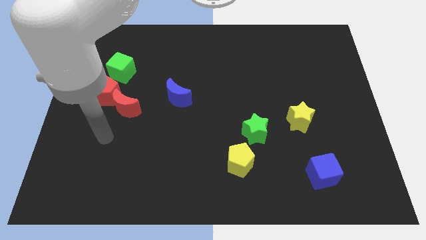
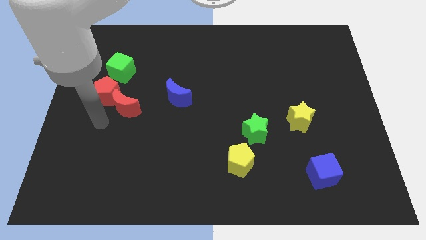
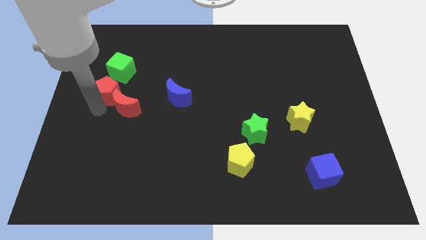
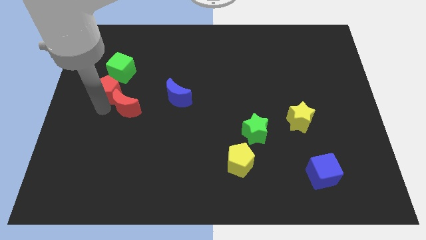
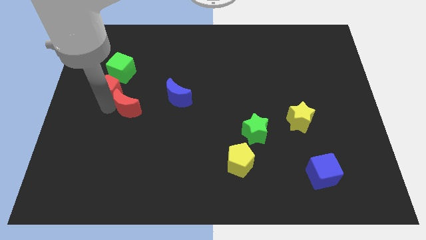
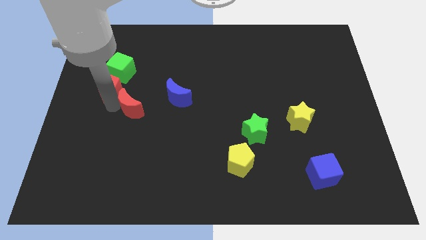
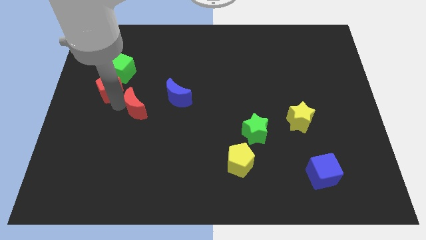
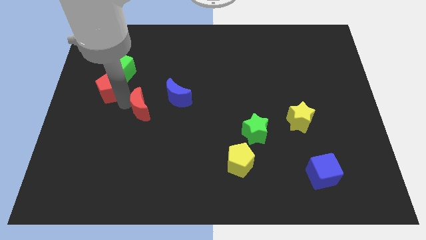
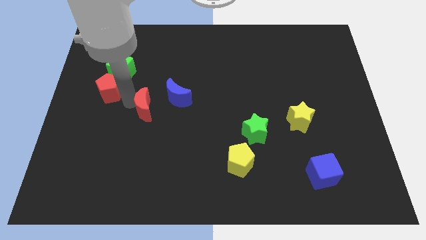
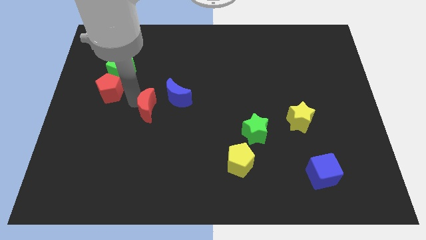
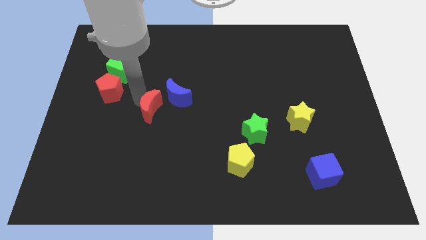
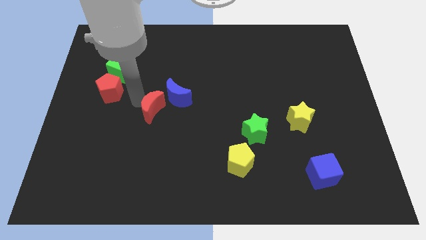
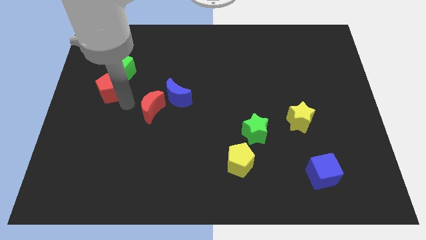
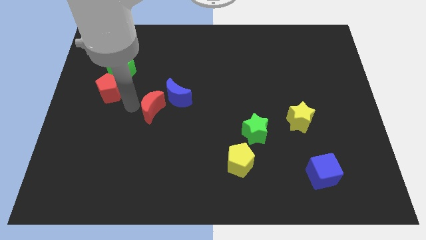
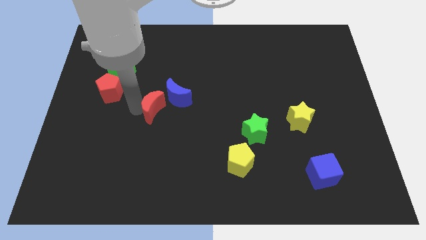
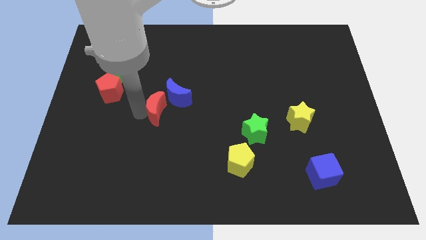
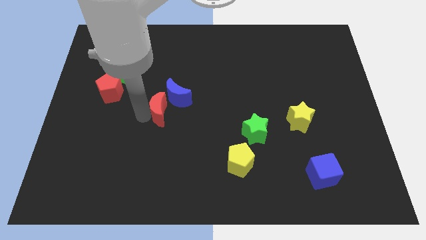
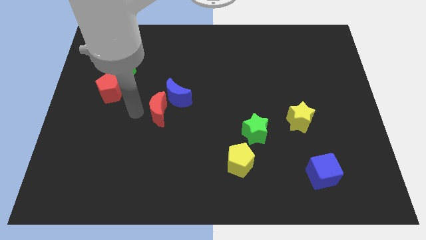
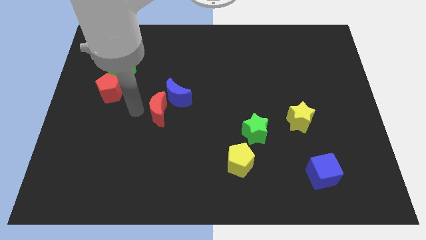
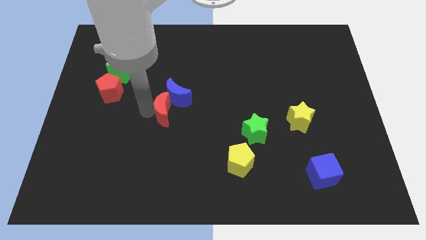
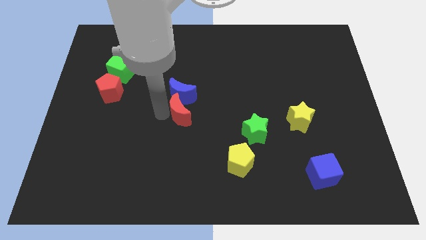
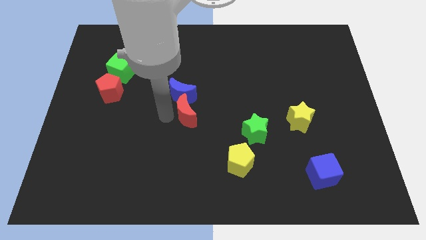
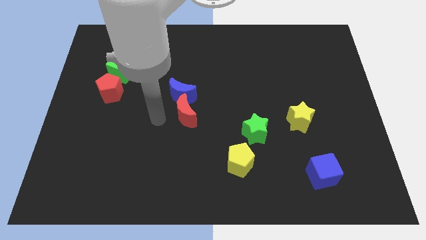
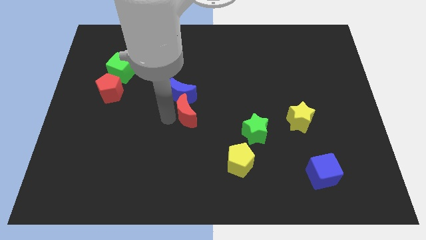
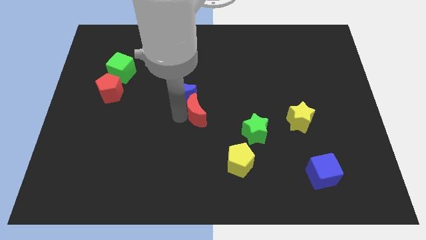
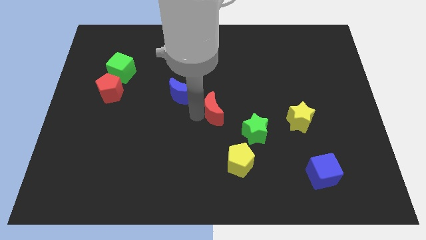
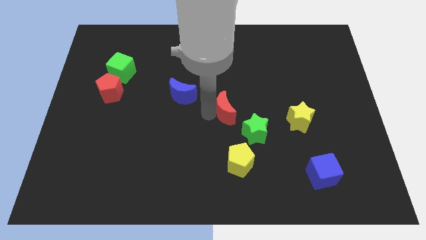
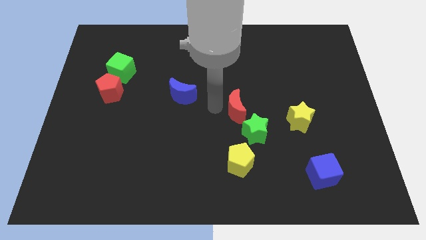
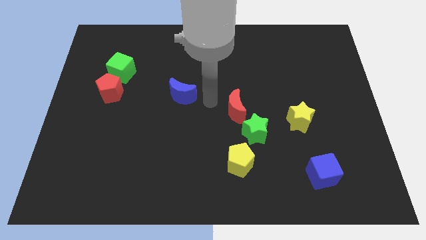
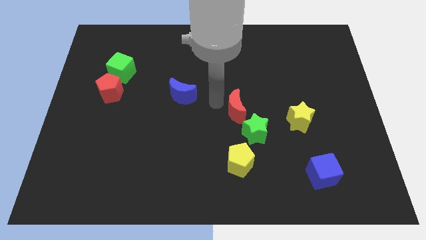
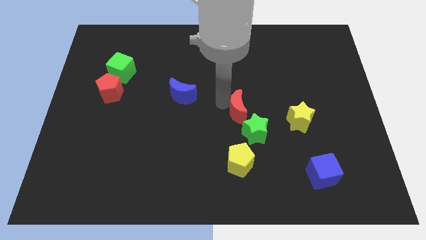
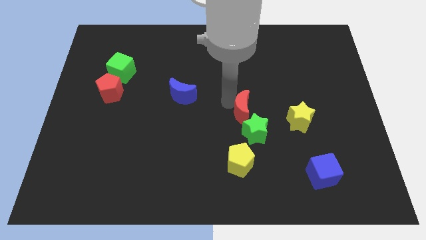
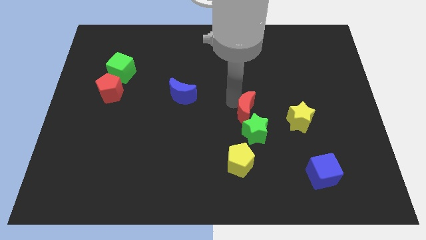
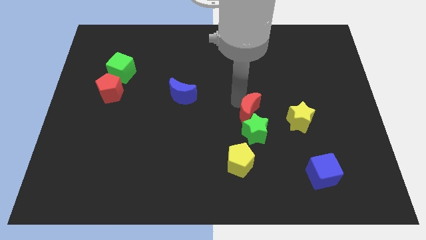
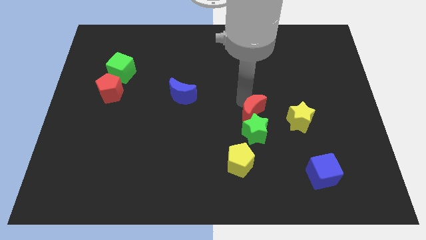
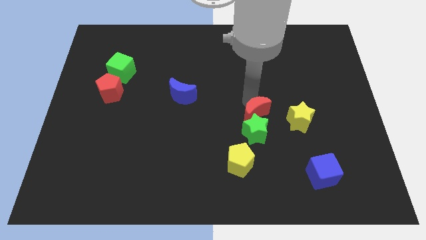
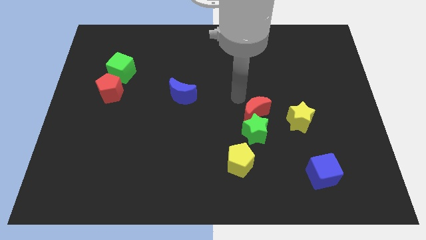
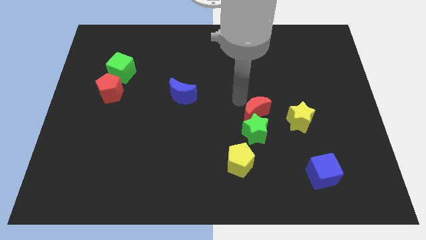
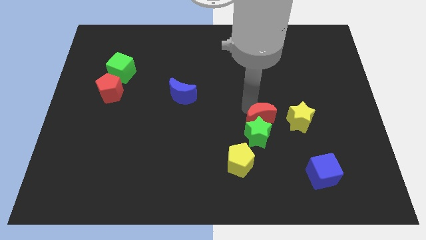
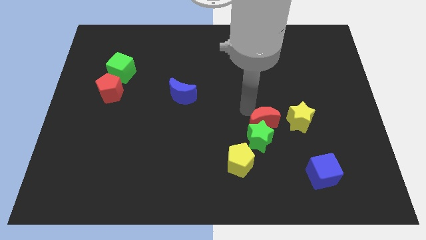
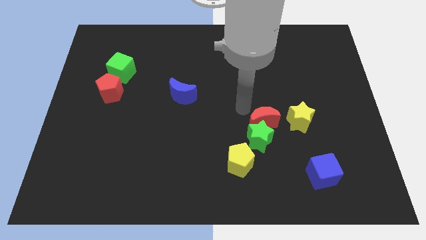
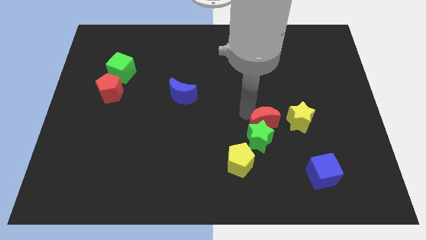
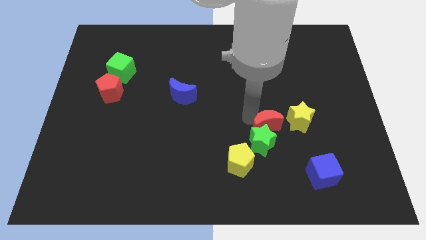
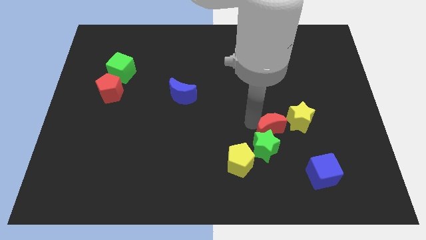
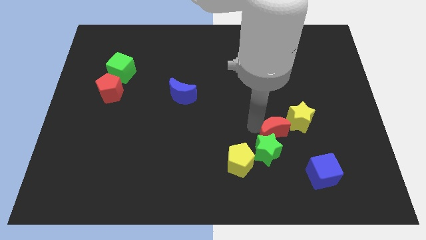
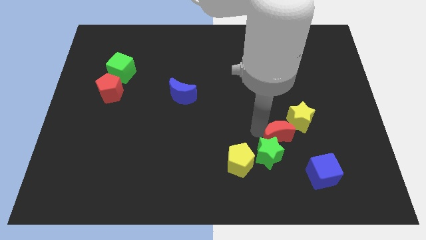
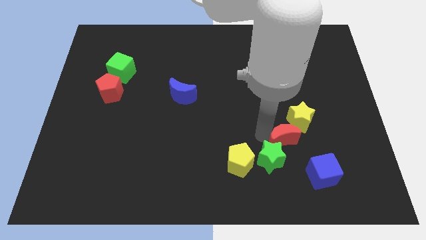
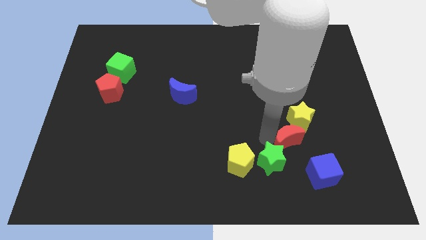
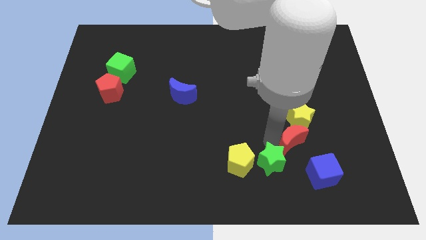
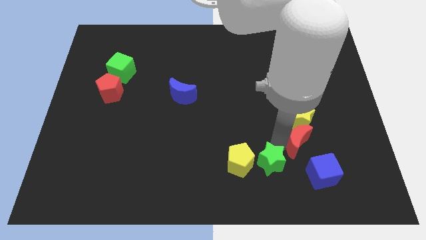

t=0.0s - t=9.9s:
put the red moon to the bottom right side of the yellow star

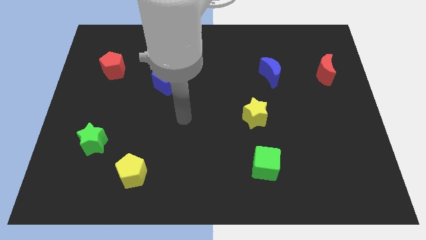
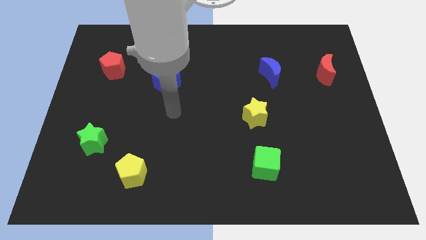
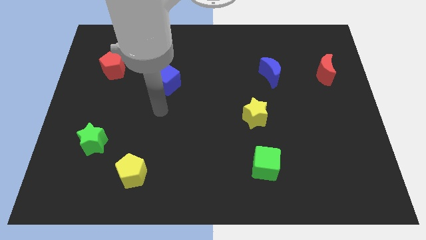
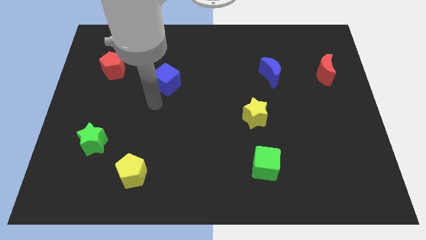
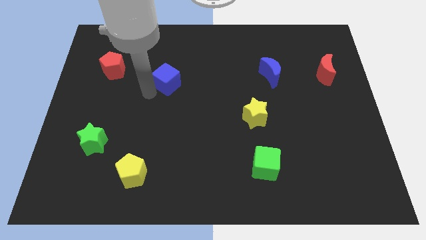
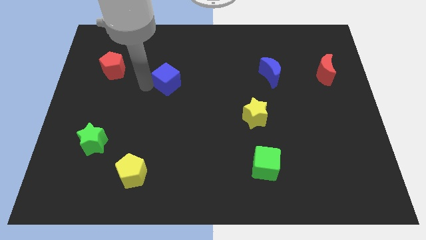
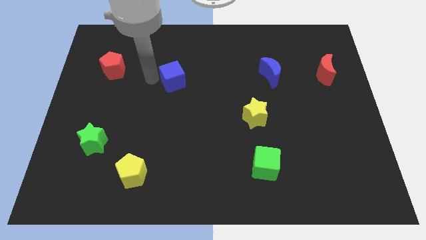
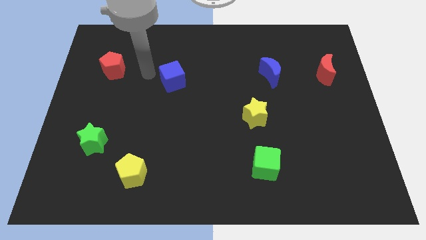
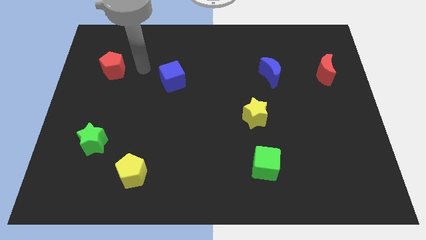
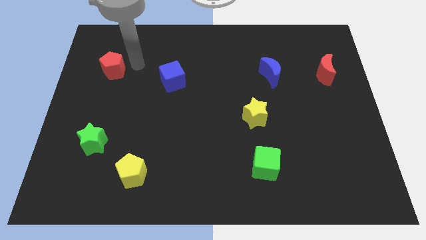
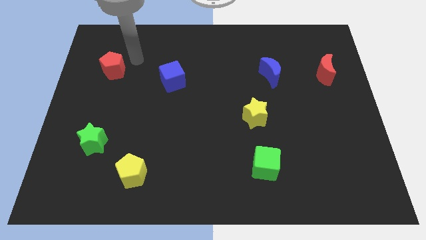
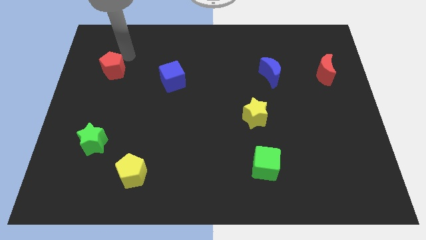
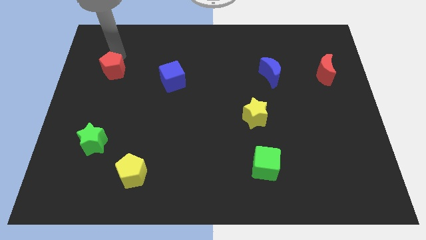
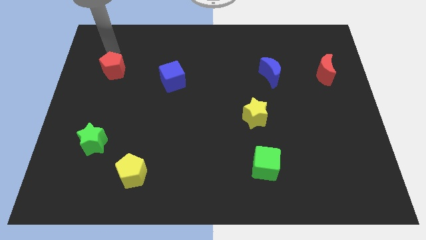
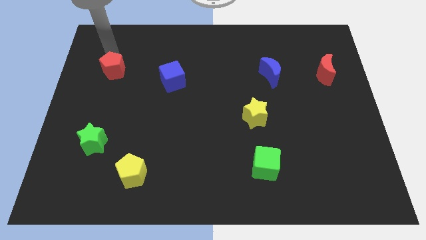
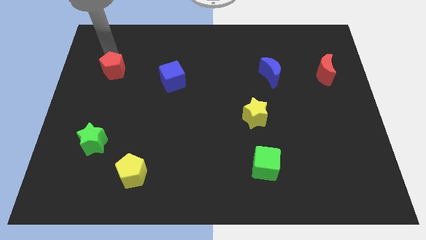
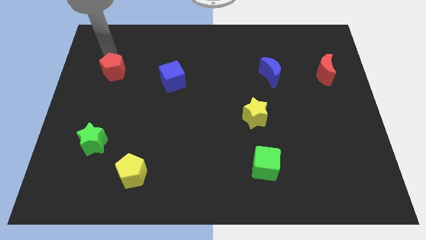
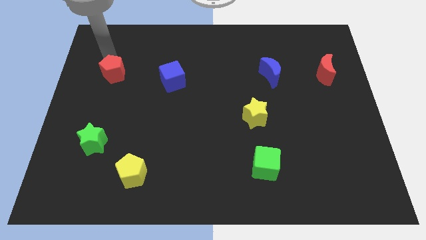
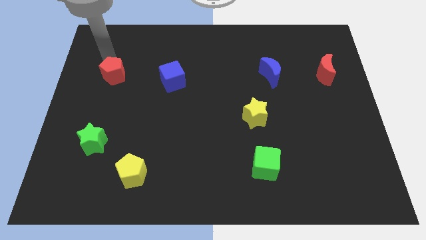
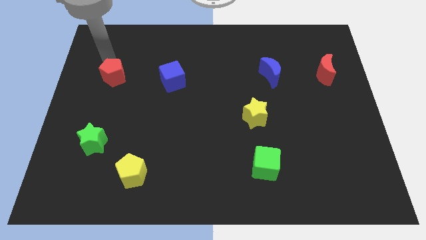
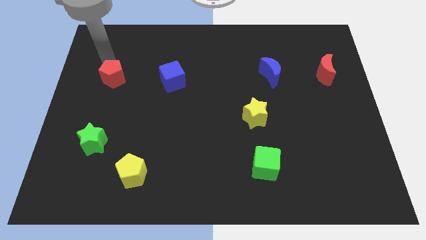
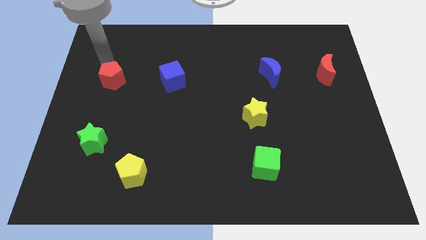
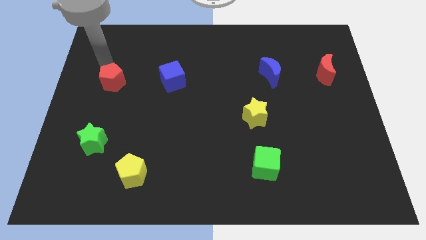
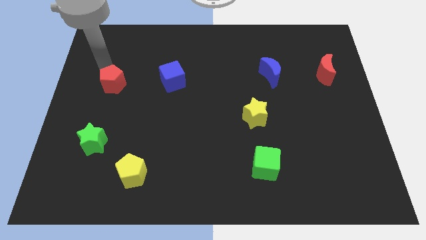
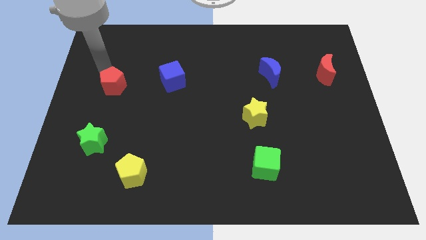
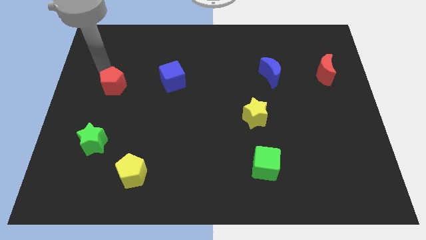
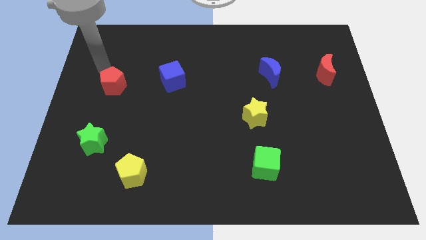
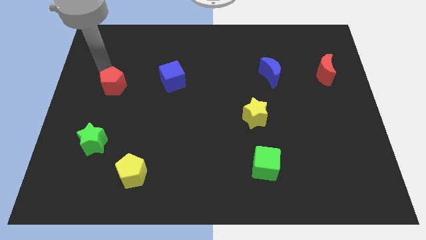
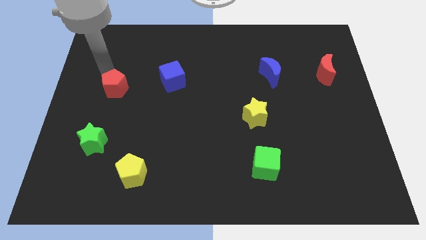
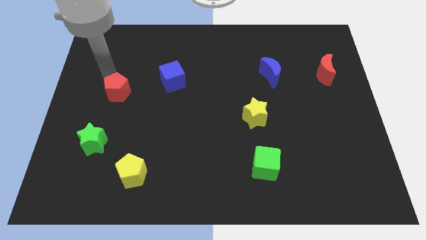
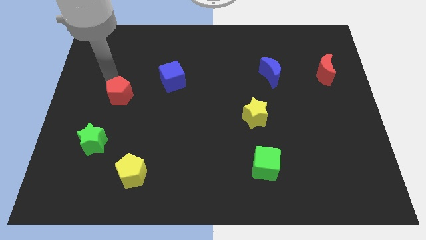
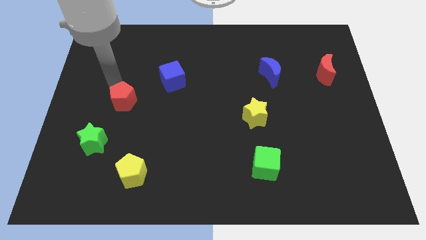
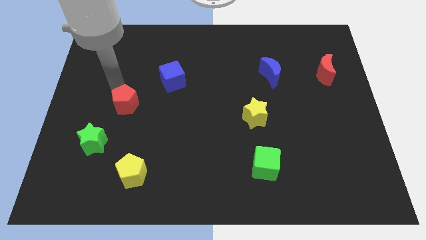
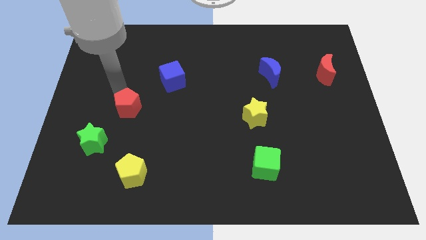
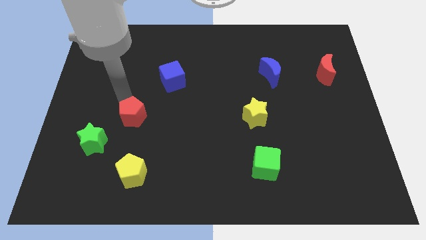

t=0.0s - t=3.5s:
slide the red pentagon to the top side of the yellow pentagon
